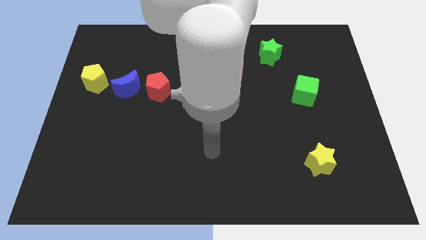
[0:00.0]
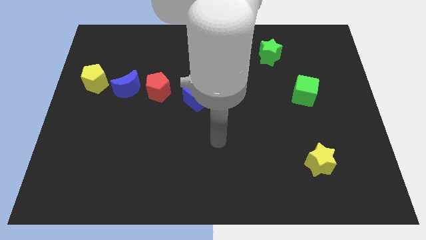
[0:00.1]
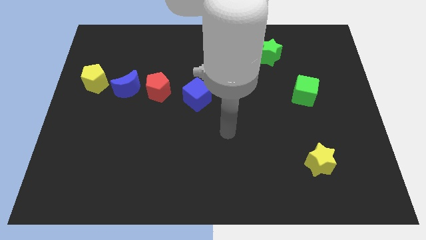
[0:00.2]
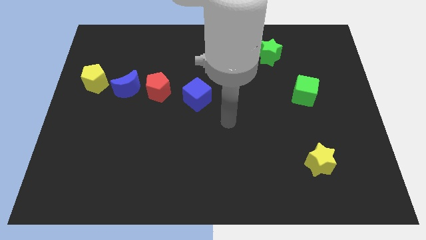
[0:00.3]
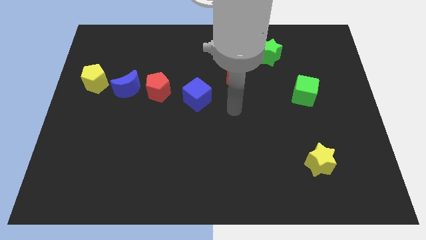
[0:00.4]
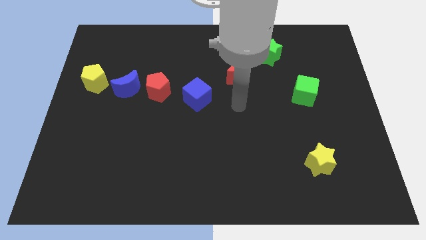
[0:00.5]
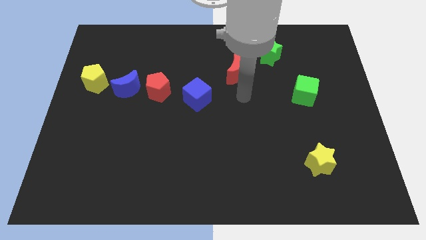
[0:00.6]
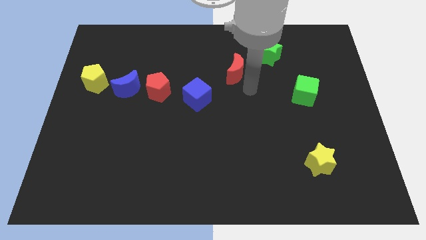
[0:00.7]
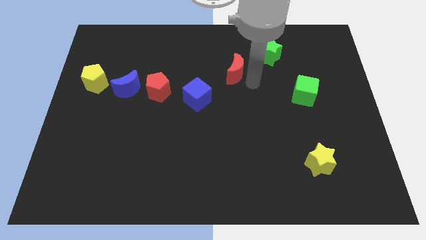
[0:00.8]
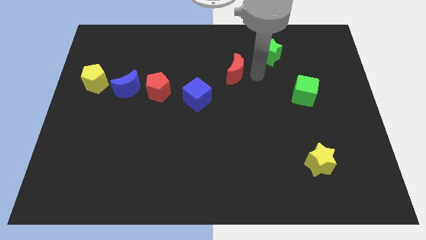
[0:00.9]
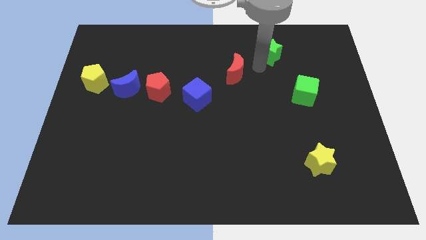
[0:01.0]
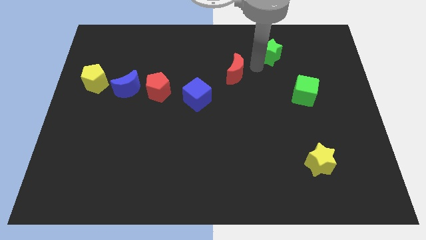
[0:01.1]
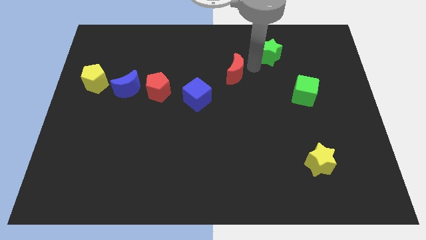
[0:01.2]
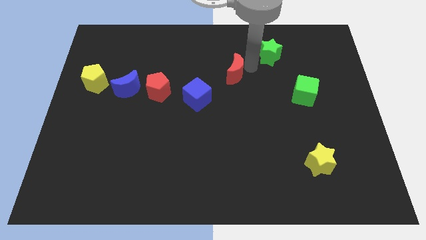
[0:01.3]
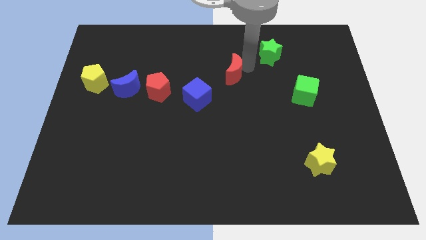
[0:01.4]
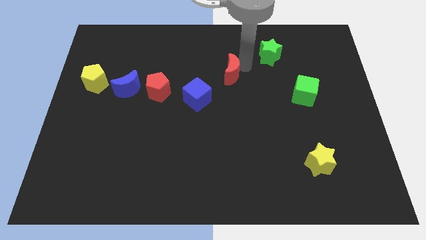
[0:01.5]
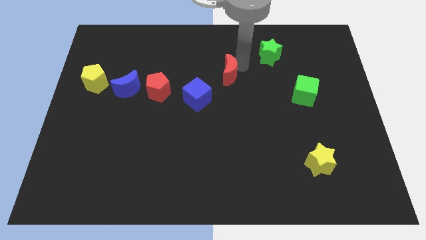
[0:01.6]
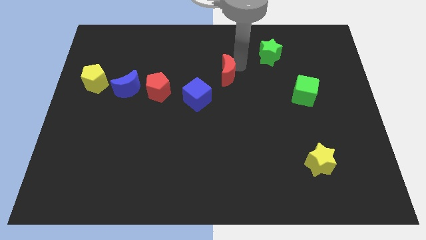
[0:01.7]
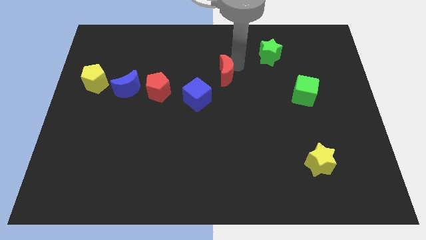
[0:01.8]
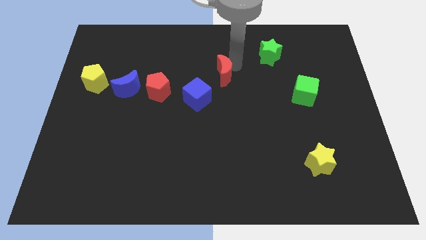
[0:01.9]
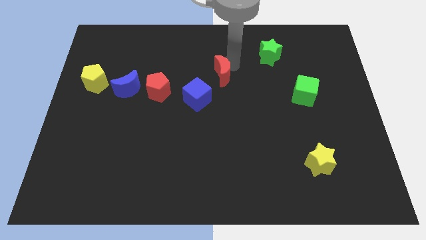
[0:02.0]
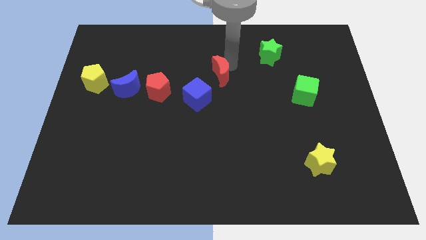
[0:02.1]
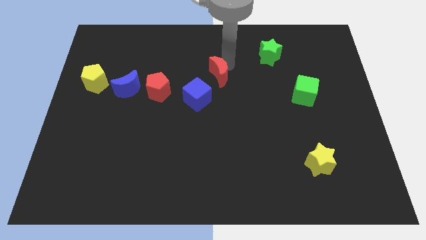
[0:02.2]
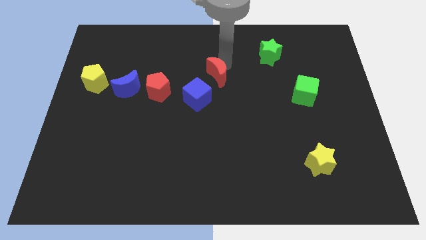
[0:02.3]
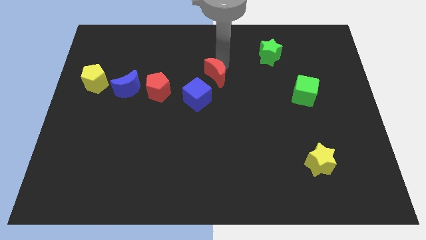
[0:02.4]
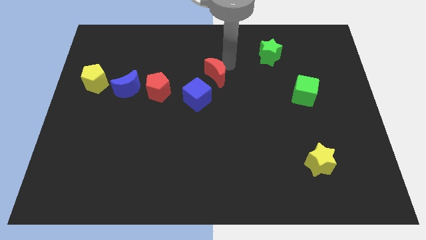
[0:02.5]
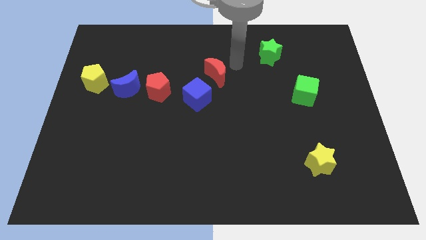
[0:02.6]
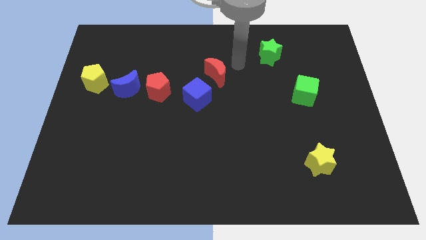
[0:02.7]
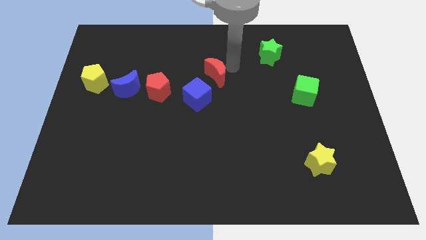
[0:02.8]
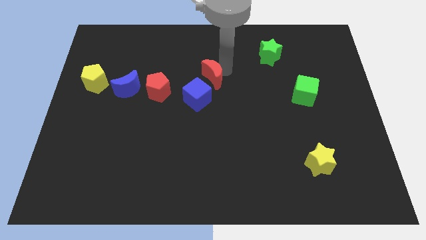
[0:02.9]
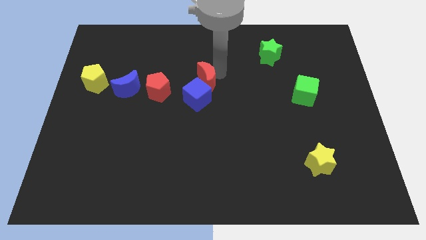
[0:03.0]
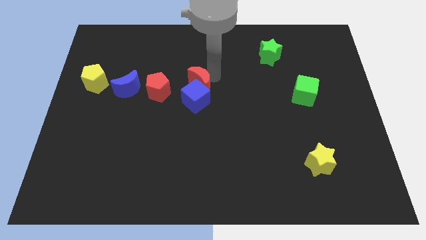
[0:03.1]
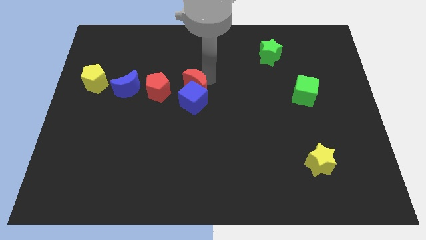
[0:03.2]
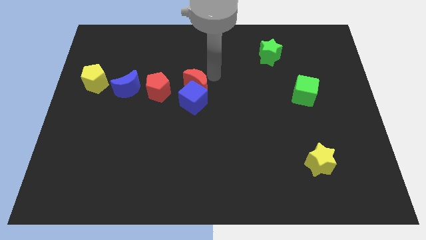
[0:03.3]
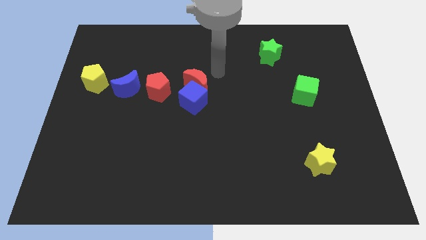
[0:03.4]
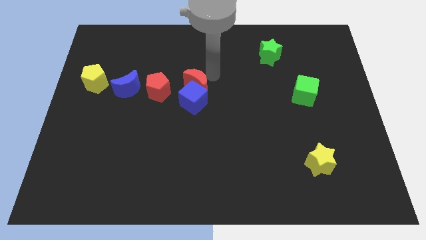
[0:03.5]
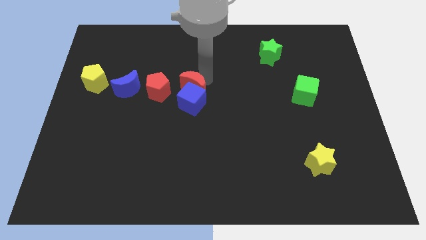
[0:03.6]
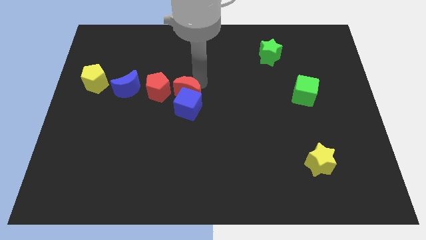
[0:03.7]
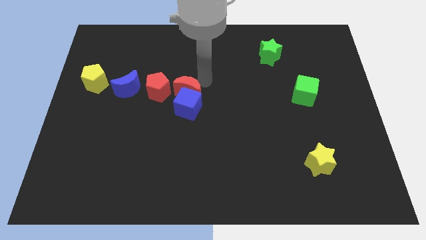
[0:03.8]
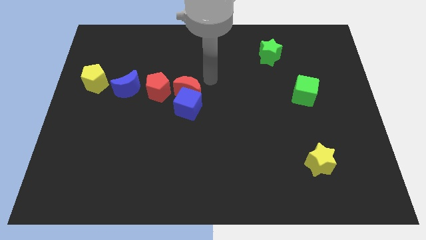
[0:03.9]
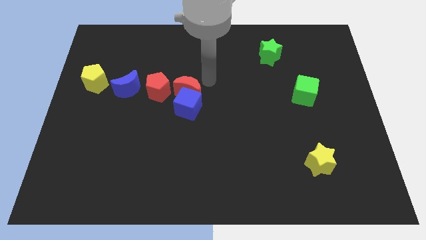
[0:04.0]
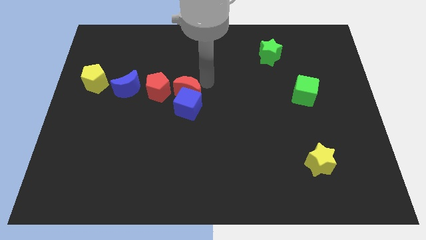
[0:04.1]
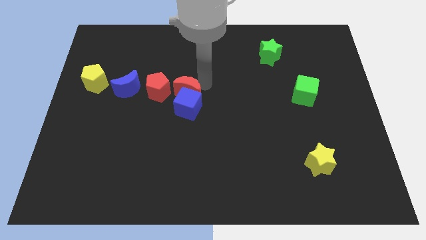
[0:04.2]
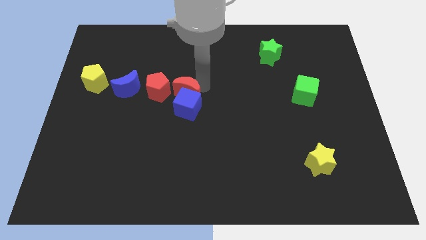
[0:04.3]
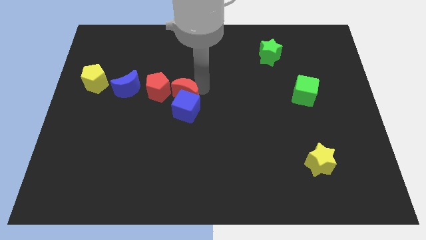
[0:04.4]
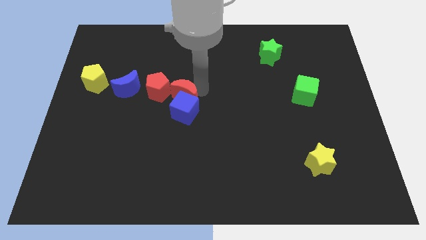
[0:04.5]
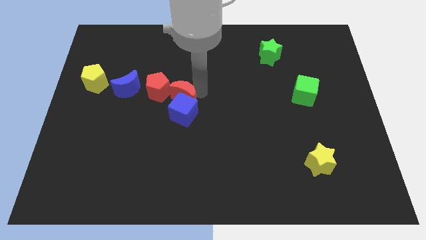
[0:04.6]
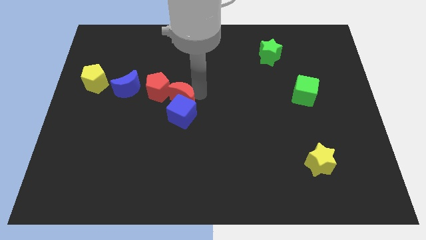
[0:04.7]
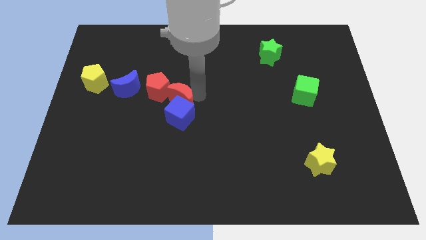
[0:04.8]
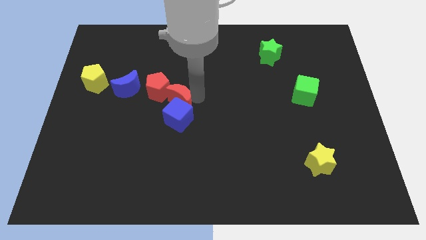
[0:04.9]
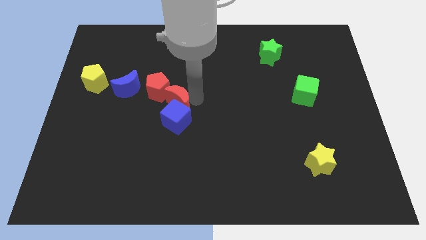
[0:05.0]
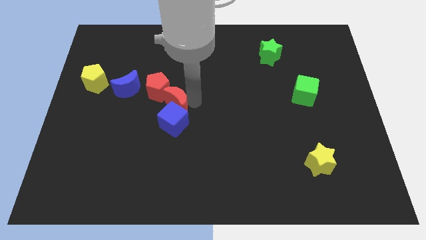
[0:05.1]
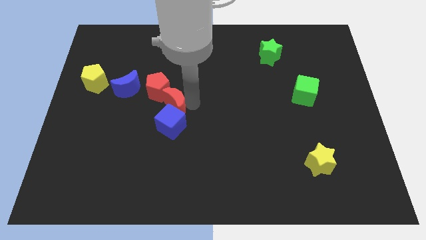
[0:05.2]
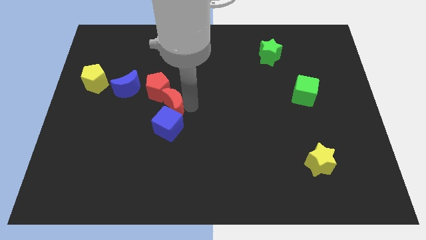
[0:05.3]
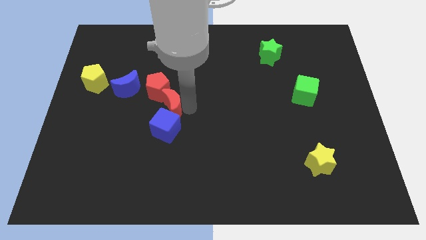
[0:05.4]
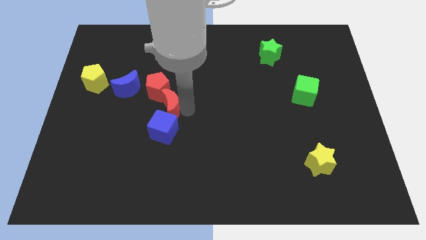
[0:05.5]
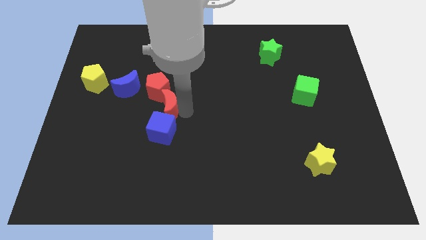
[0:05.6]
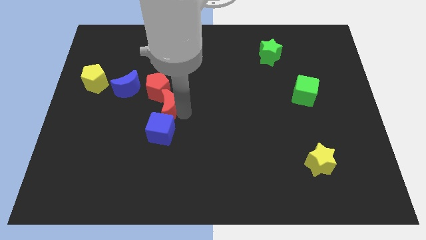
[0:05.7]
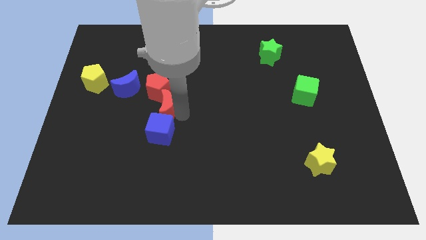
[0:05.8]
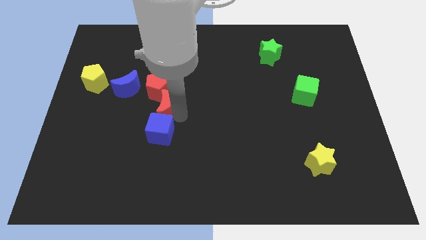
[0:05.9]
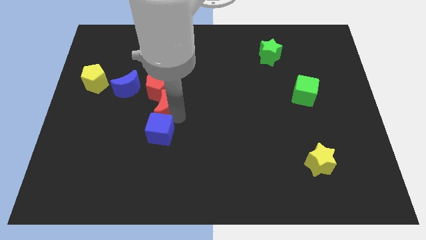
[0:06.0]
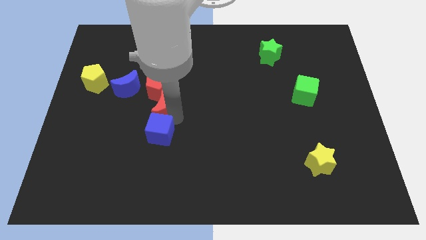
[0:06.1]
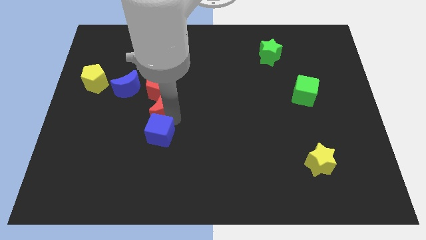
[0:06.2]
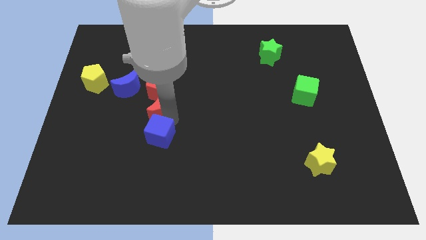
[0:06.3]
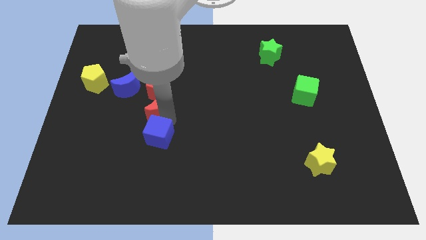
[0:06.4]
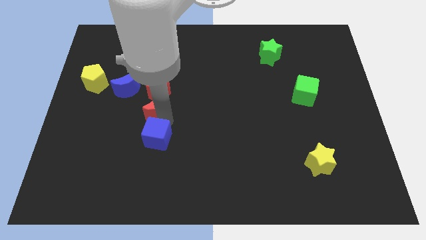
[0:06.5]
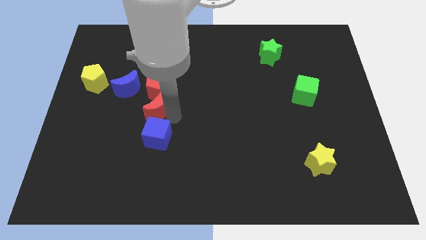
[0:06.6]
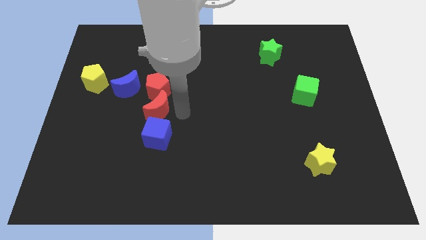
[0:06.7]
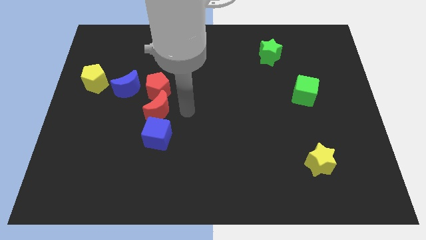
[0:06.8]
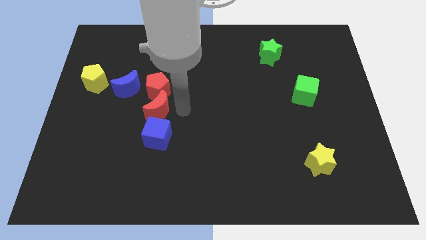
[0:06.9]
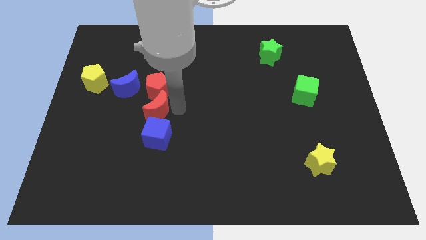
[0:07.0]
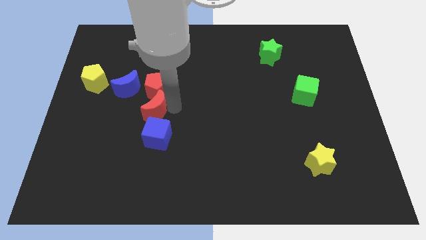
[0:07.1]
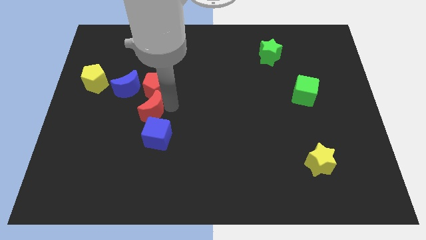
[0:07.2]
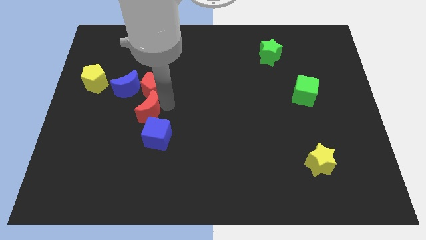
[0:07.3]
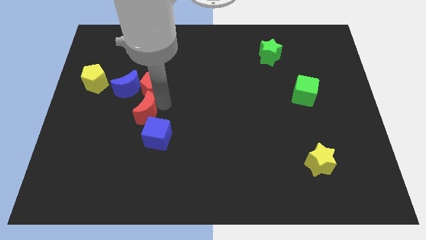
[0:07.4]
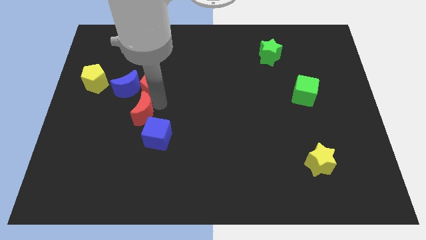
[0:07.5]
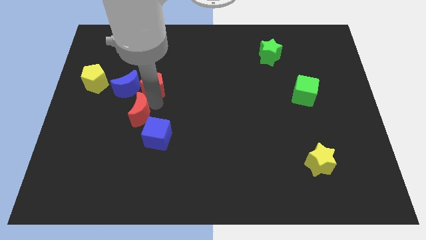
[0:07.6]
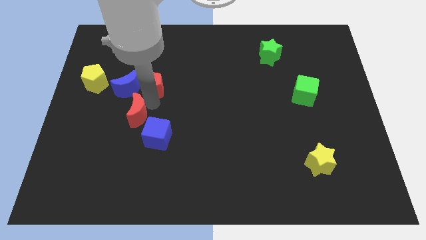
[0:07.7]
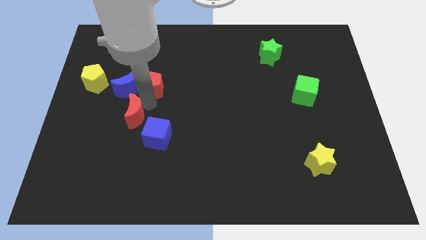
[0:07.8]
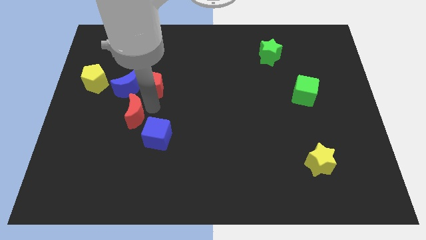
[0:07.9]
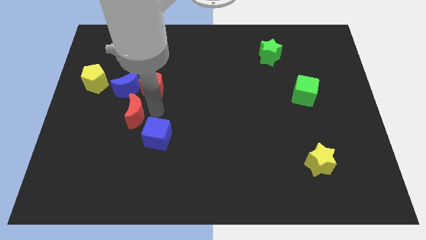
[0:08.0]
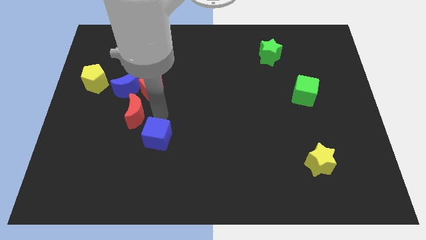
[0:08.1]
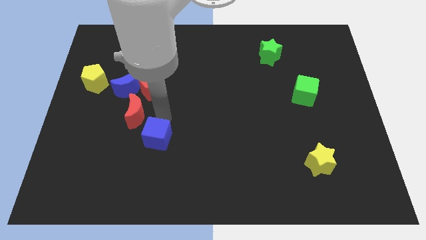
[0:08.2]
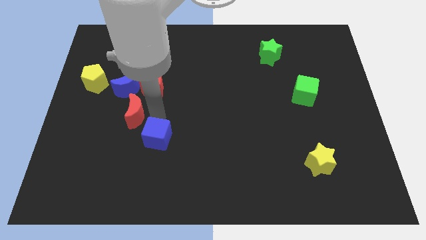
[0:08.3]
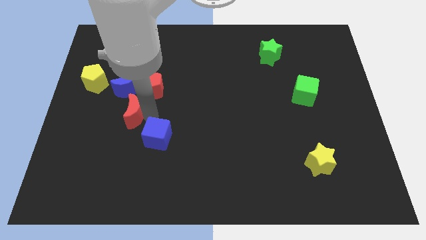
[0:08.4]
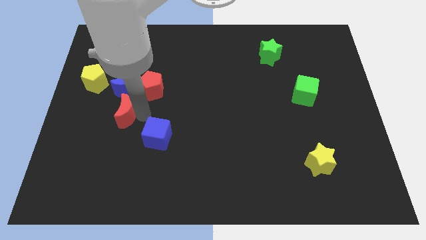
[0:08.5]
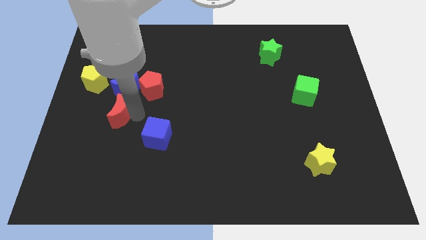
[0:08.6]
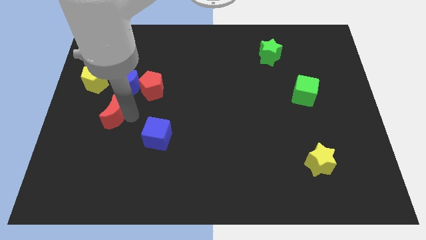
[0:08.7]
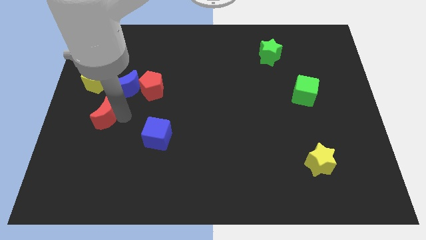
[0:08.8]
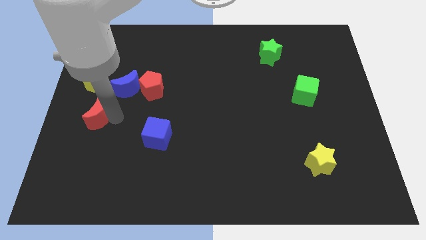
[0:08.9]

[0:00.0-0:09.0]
put the red moon to the center left
